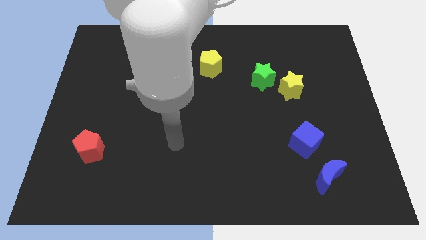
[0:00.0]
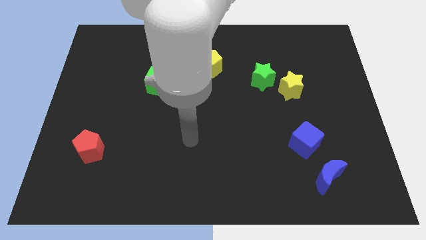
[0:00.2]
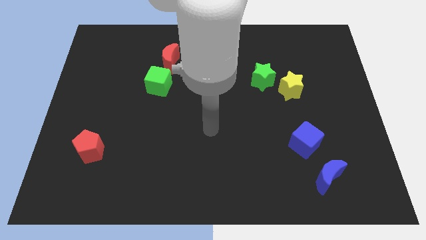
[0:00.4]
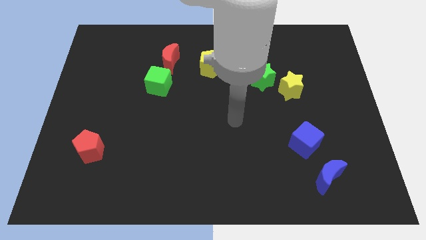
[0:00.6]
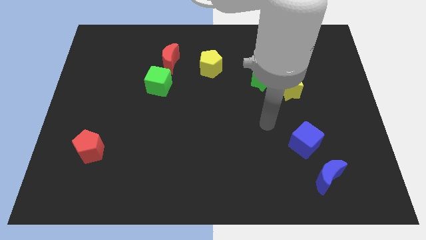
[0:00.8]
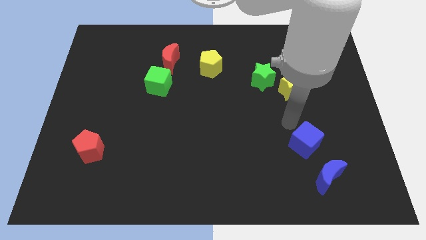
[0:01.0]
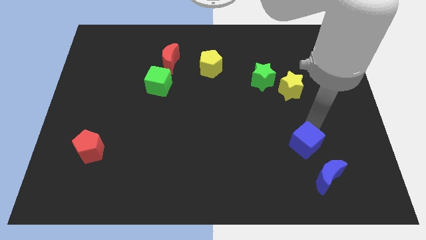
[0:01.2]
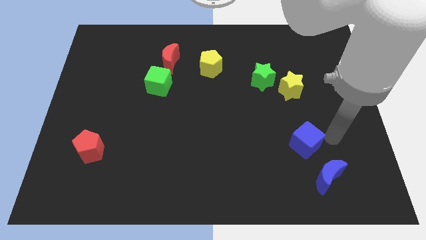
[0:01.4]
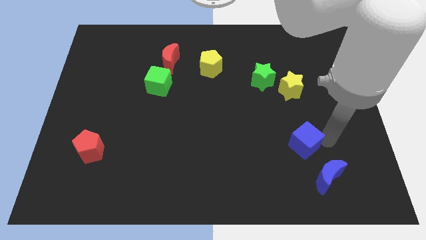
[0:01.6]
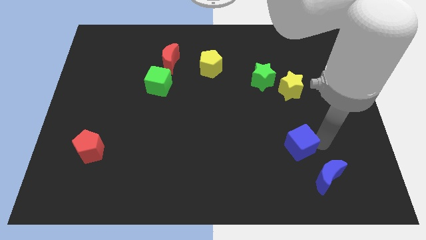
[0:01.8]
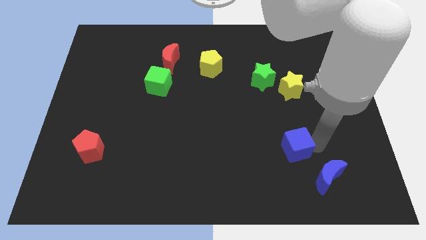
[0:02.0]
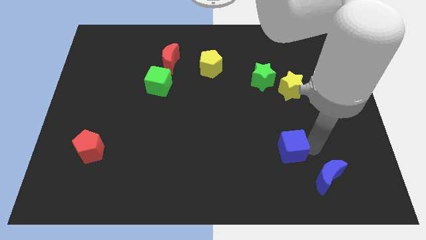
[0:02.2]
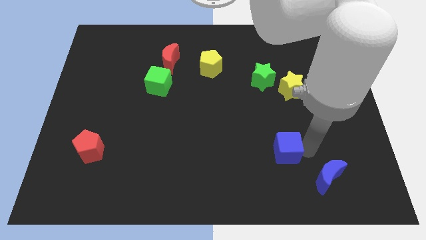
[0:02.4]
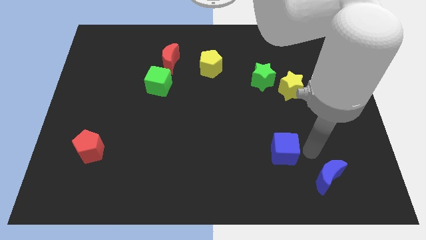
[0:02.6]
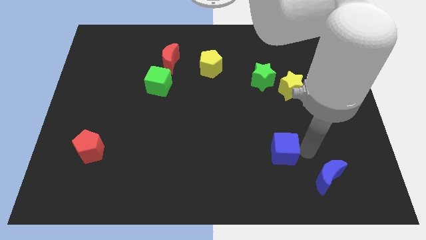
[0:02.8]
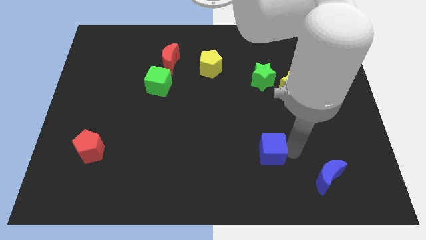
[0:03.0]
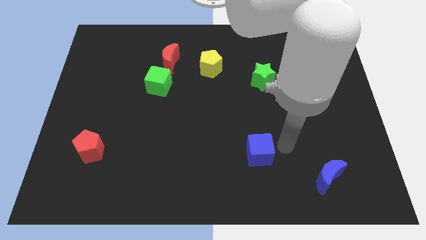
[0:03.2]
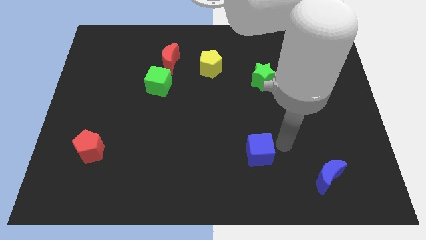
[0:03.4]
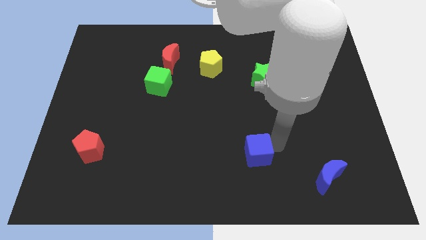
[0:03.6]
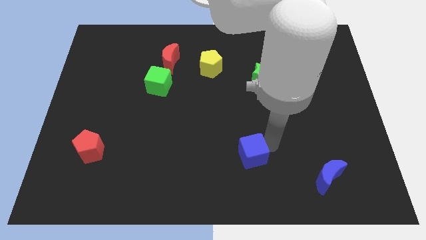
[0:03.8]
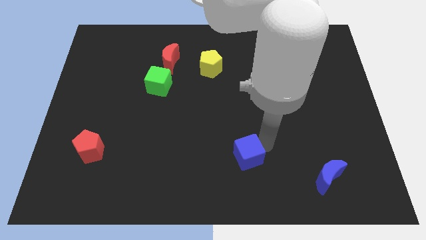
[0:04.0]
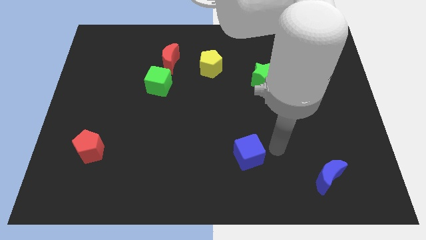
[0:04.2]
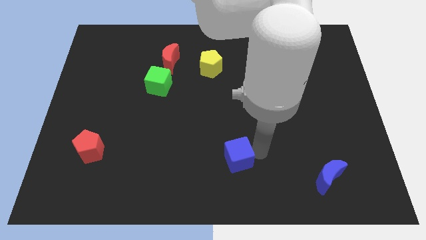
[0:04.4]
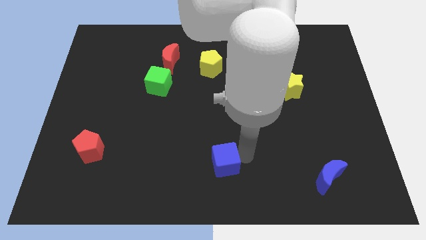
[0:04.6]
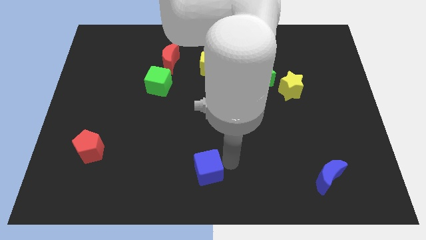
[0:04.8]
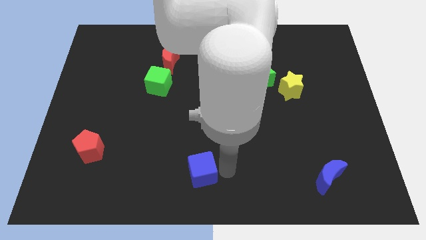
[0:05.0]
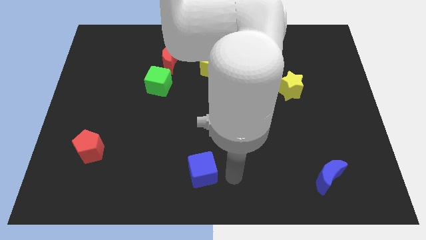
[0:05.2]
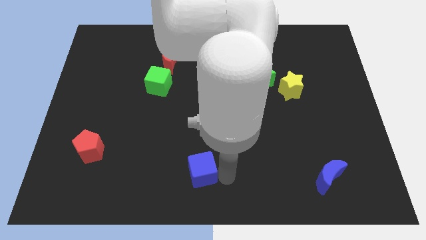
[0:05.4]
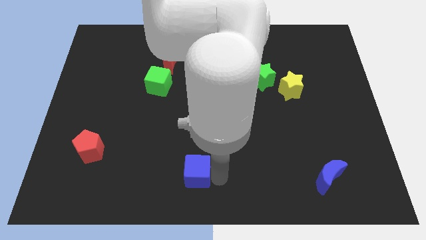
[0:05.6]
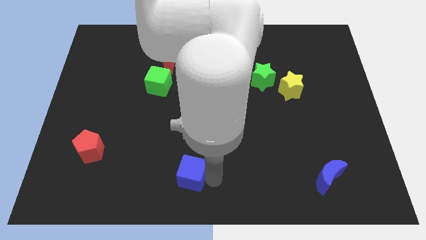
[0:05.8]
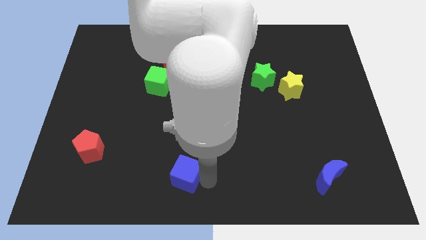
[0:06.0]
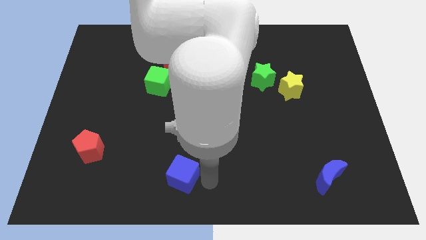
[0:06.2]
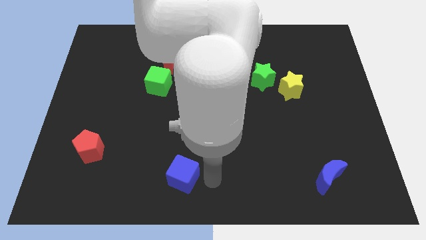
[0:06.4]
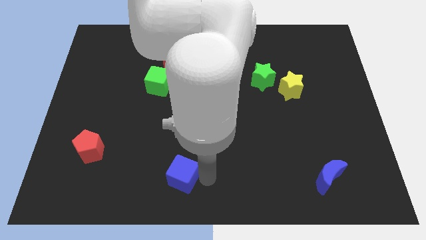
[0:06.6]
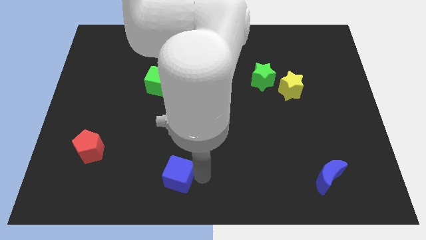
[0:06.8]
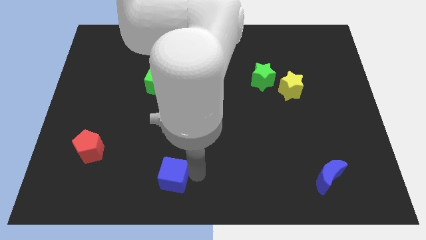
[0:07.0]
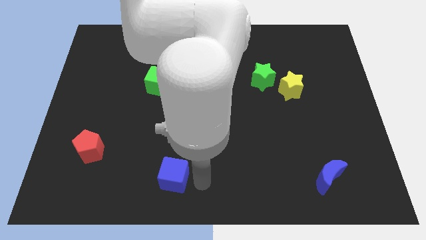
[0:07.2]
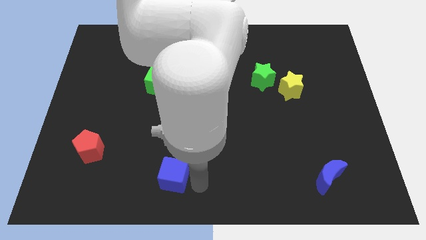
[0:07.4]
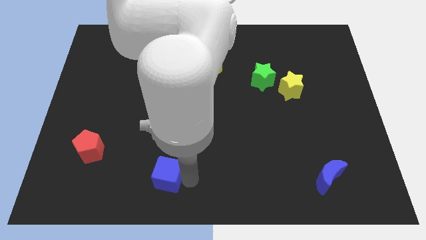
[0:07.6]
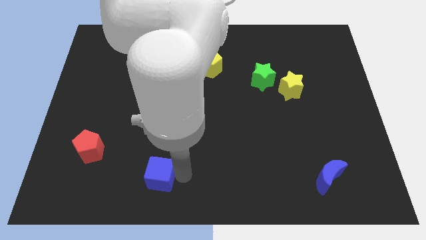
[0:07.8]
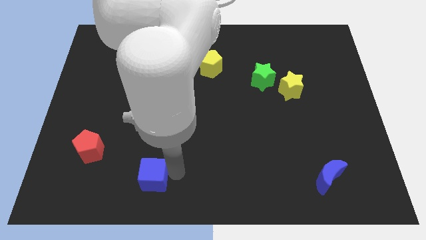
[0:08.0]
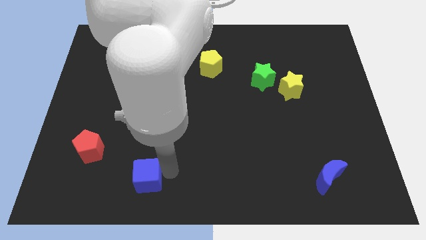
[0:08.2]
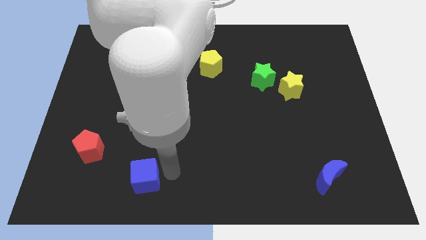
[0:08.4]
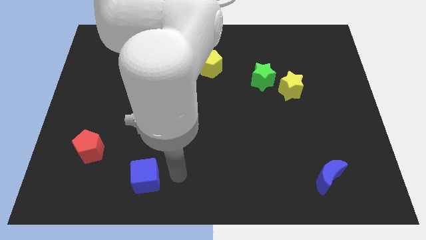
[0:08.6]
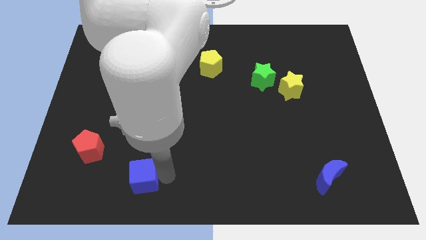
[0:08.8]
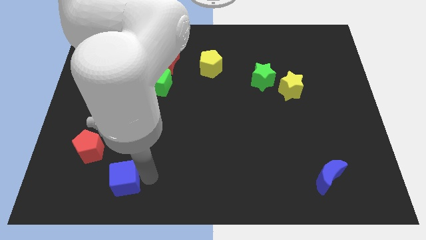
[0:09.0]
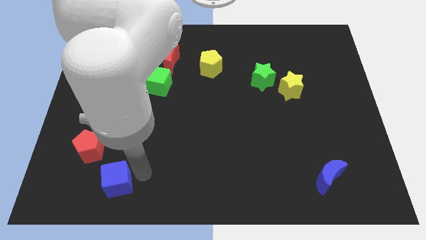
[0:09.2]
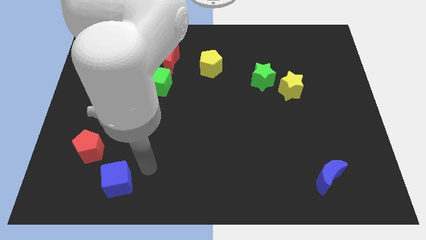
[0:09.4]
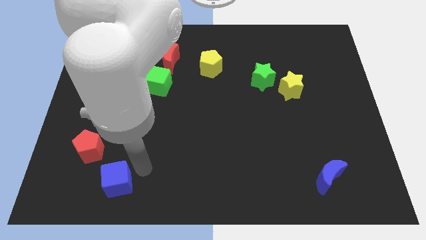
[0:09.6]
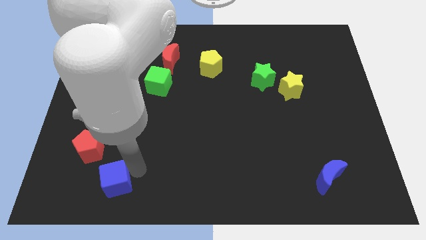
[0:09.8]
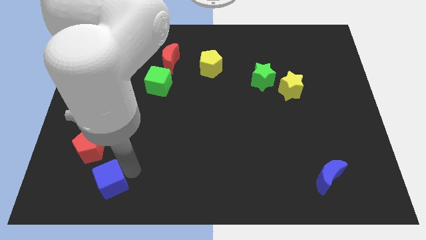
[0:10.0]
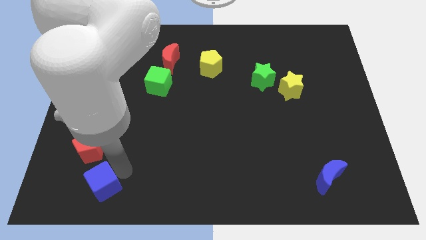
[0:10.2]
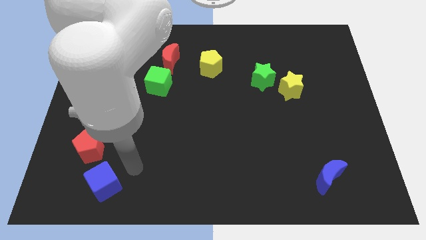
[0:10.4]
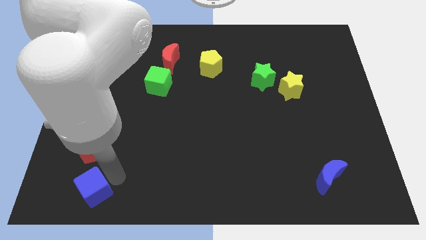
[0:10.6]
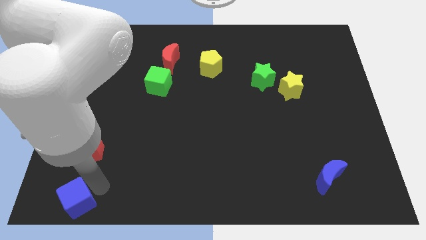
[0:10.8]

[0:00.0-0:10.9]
push the blue cube to the bottom left of the board

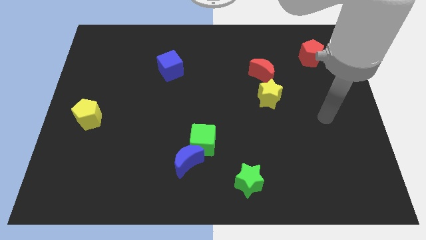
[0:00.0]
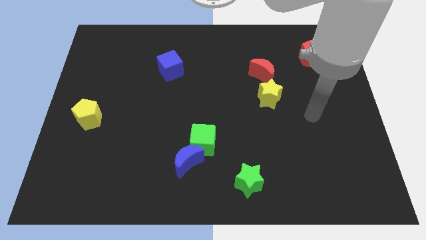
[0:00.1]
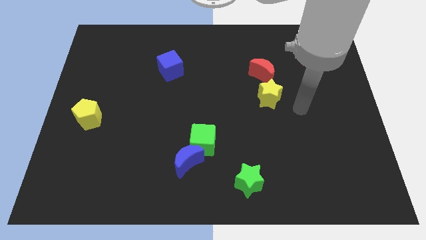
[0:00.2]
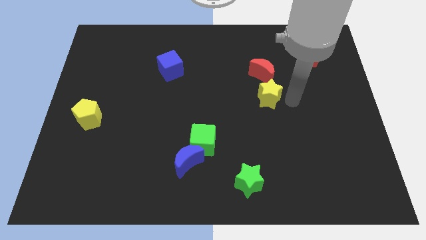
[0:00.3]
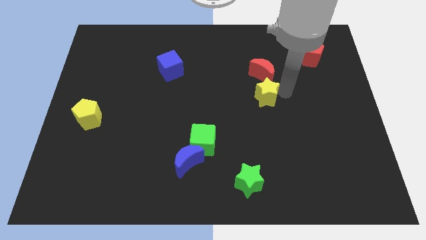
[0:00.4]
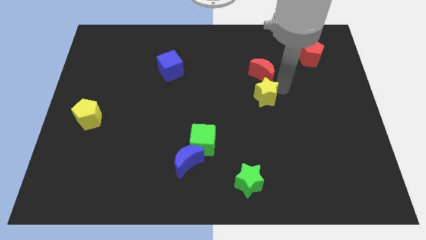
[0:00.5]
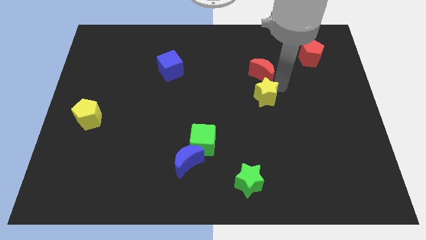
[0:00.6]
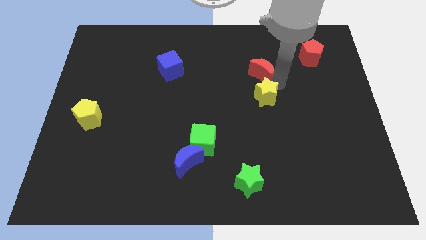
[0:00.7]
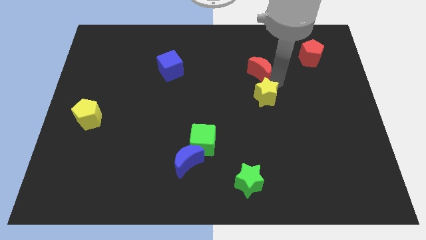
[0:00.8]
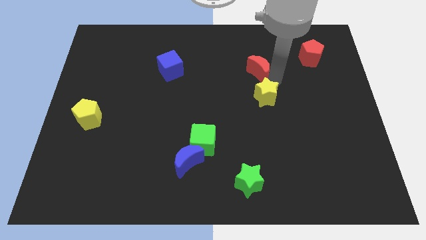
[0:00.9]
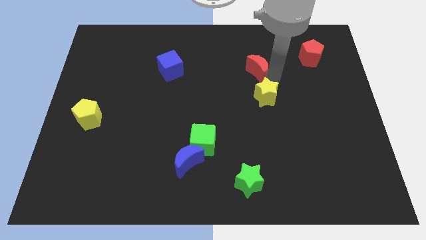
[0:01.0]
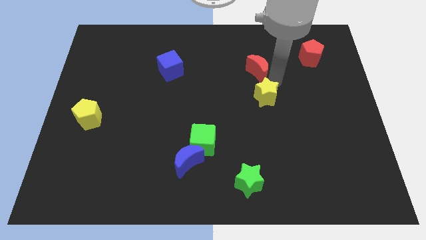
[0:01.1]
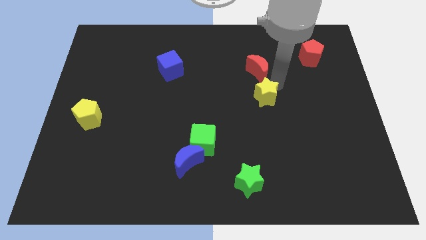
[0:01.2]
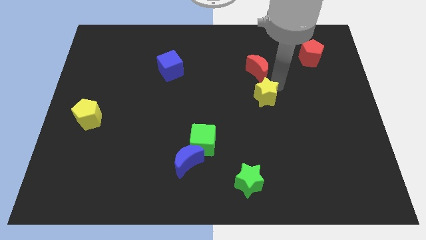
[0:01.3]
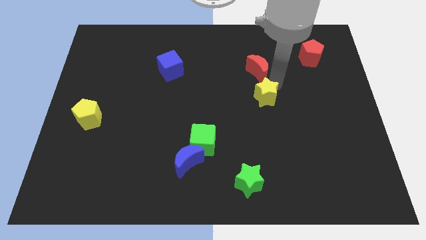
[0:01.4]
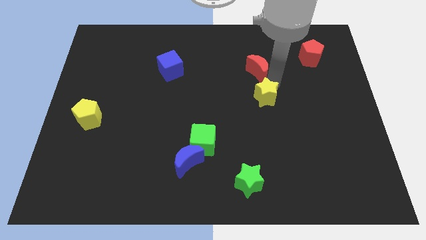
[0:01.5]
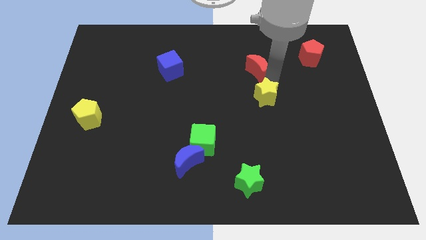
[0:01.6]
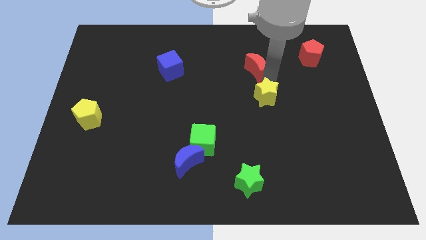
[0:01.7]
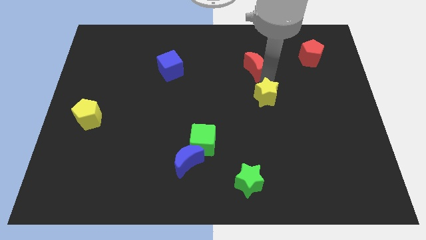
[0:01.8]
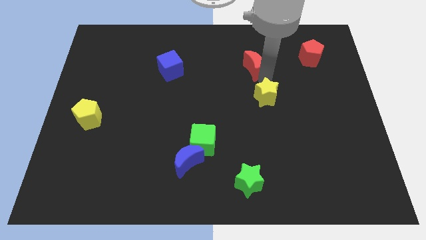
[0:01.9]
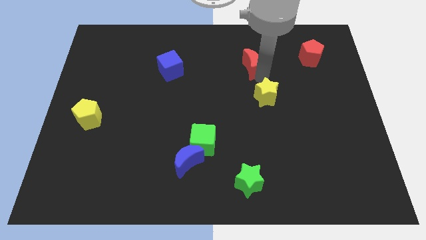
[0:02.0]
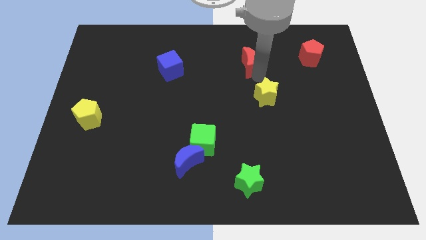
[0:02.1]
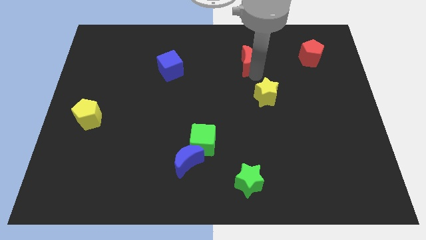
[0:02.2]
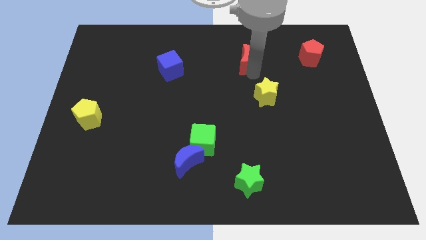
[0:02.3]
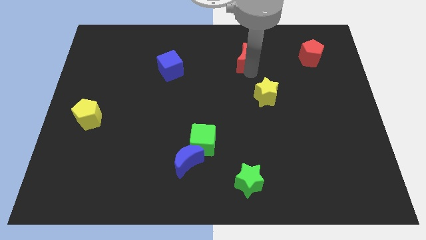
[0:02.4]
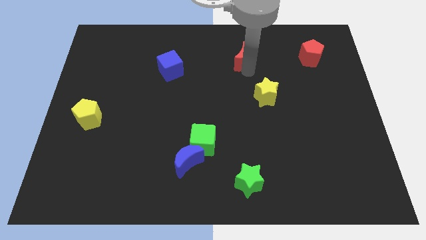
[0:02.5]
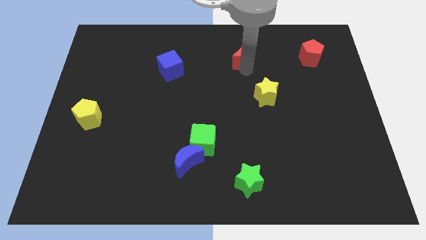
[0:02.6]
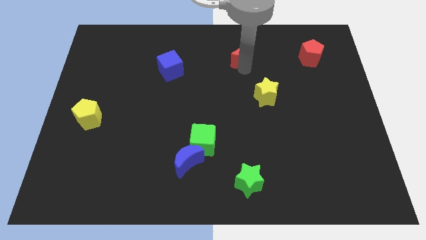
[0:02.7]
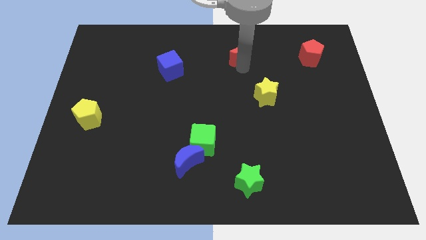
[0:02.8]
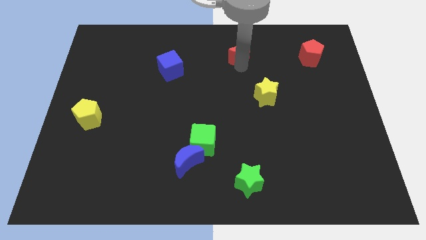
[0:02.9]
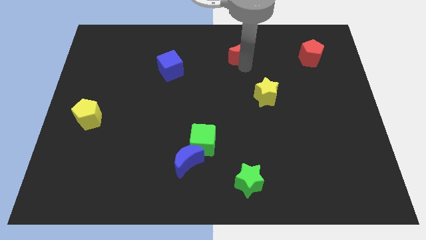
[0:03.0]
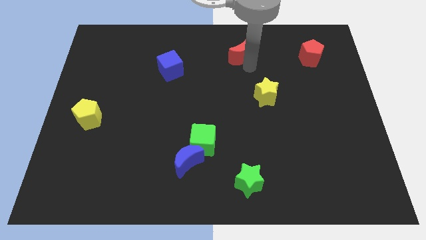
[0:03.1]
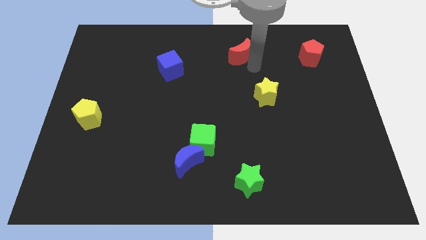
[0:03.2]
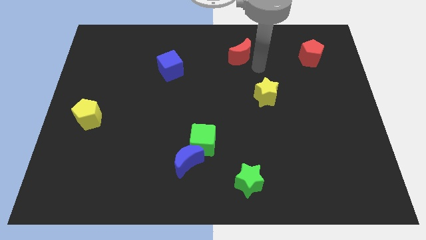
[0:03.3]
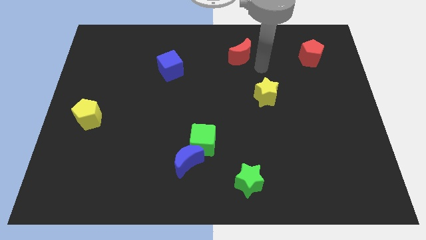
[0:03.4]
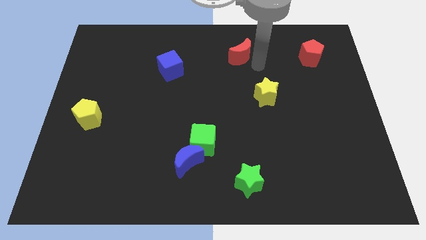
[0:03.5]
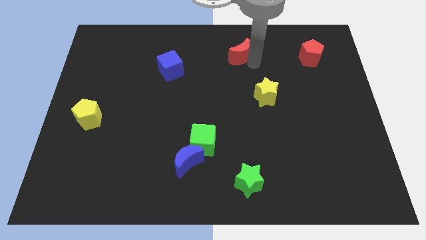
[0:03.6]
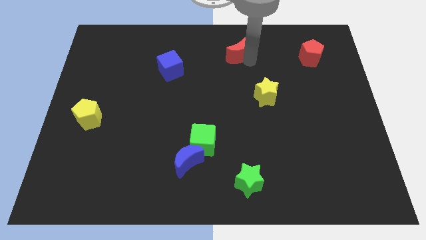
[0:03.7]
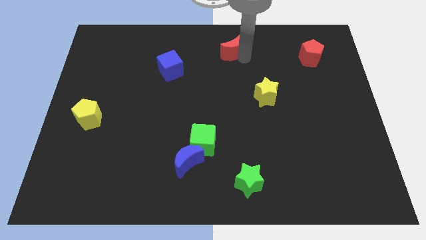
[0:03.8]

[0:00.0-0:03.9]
put the red moon to the towards your base
